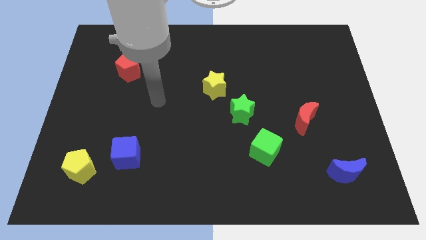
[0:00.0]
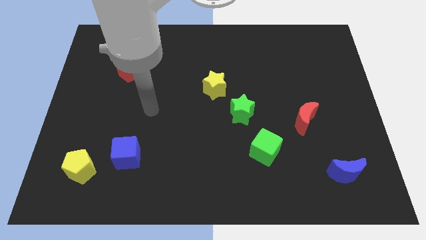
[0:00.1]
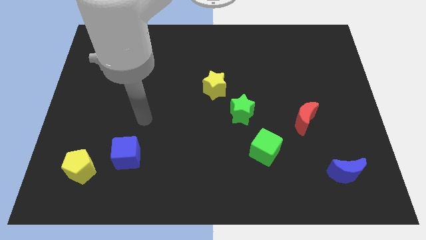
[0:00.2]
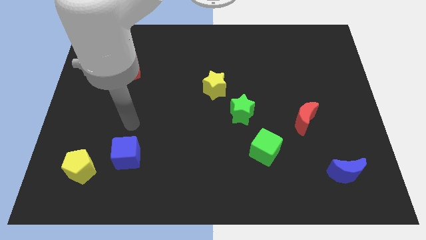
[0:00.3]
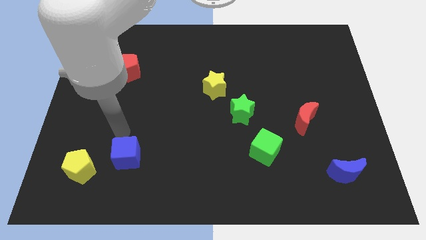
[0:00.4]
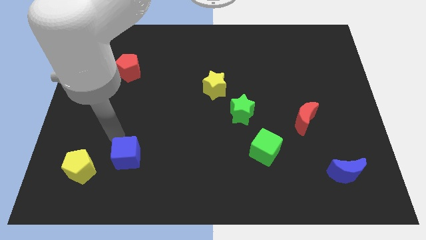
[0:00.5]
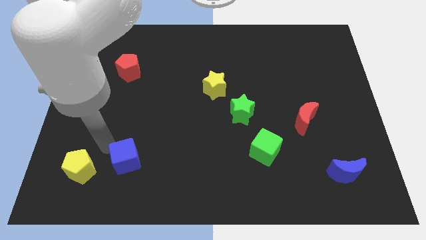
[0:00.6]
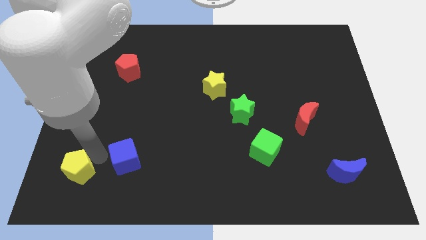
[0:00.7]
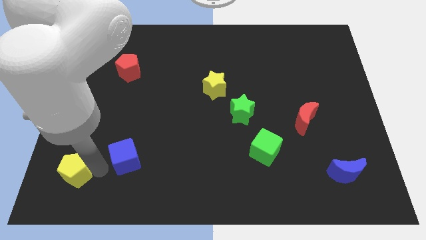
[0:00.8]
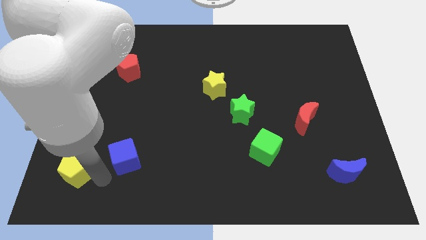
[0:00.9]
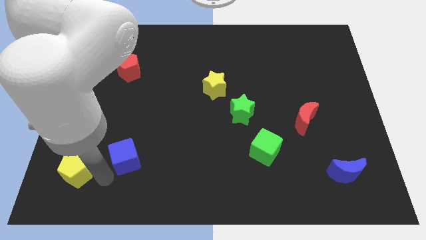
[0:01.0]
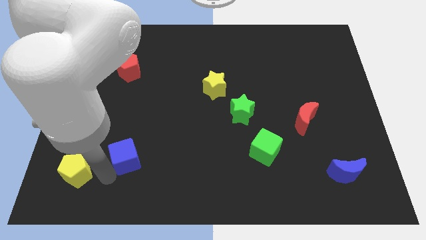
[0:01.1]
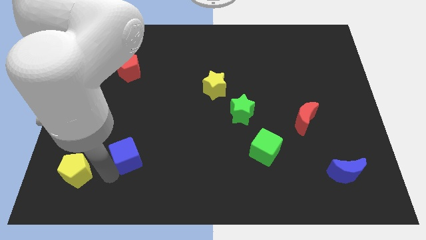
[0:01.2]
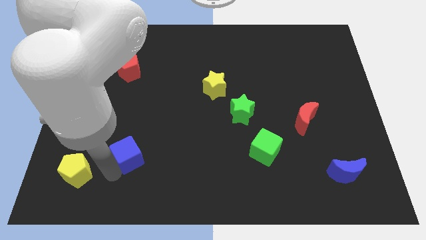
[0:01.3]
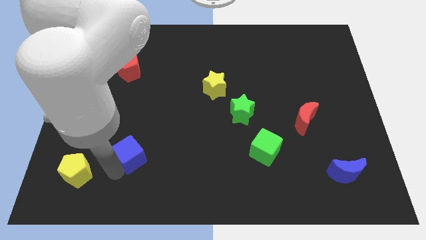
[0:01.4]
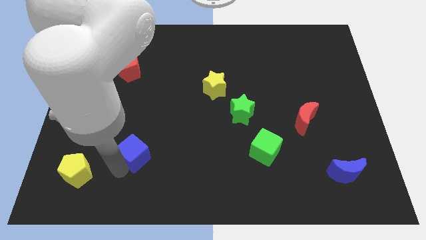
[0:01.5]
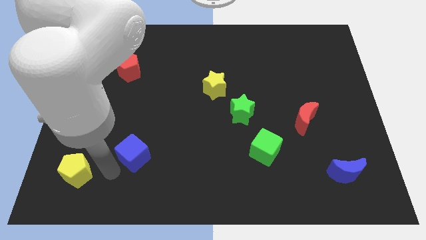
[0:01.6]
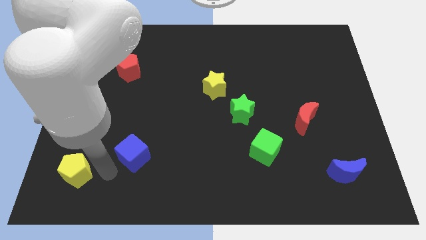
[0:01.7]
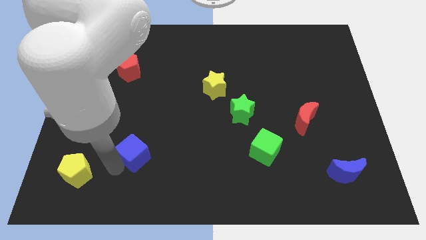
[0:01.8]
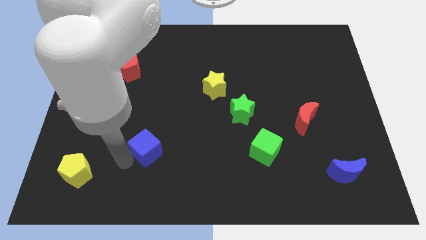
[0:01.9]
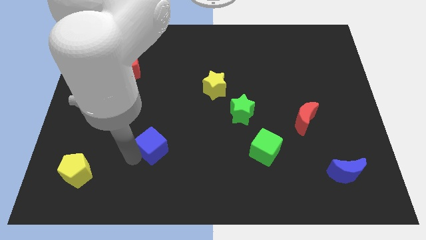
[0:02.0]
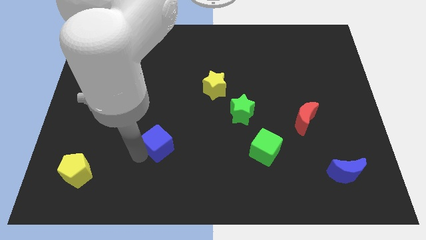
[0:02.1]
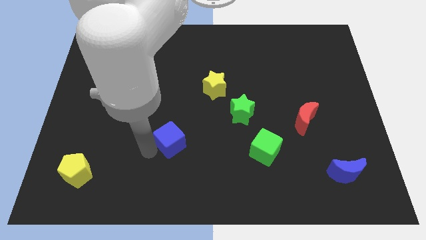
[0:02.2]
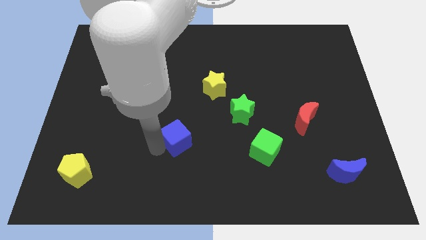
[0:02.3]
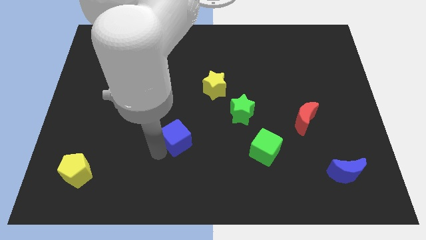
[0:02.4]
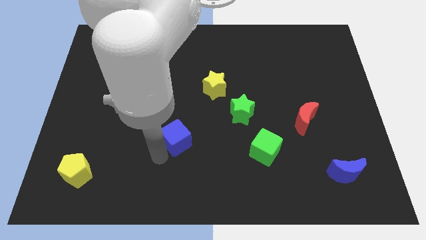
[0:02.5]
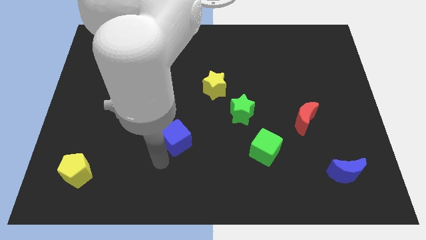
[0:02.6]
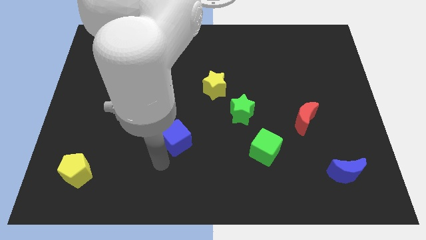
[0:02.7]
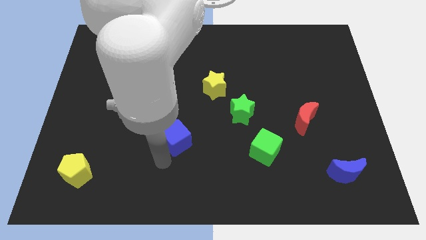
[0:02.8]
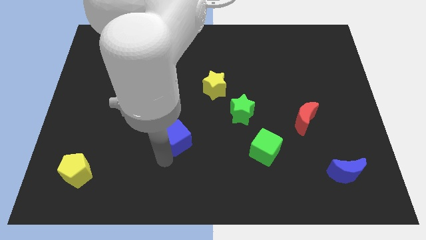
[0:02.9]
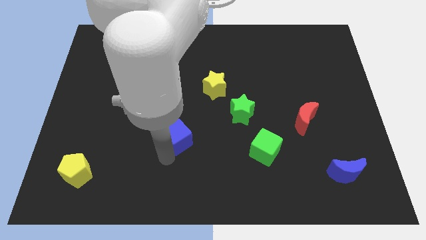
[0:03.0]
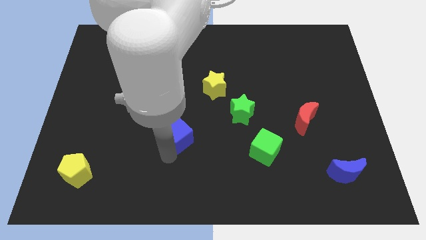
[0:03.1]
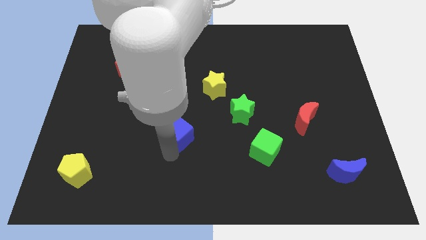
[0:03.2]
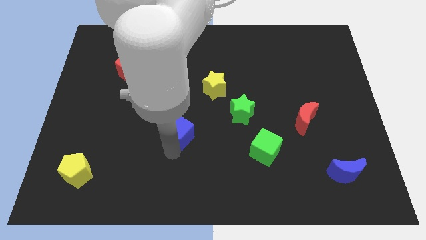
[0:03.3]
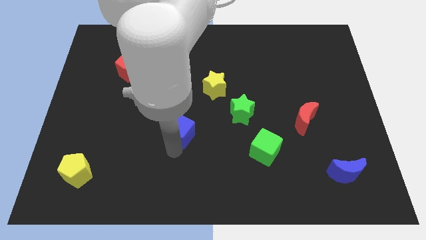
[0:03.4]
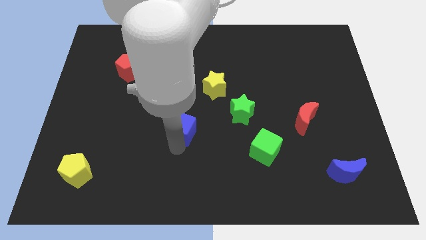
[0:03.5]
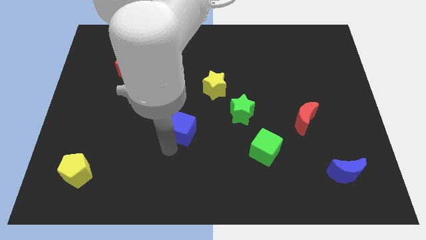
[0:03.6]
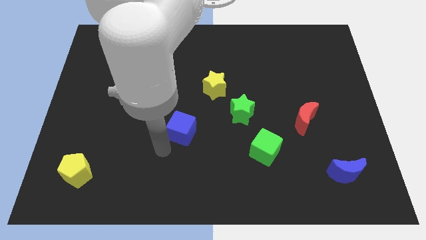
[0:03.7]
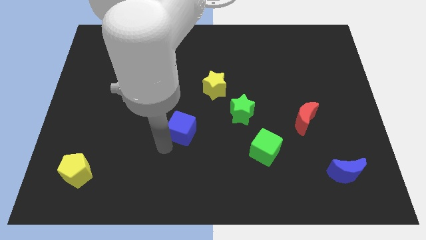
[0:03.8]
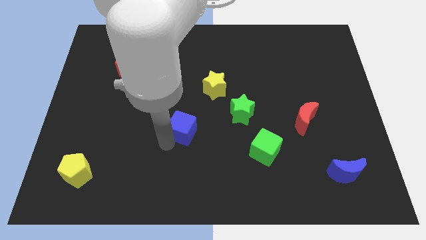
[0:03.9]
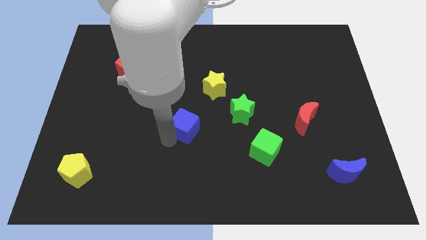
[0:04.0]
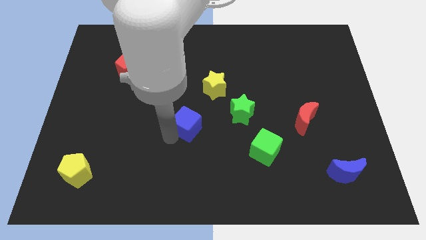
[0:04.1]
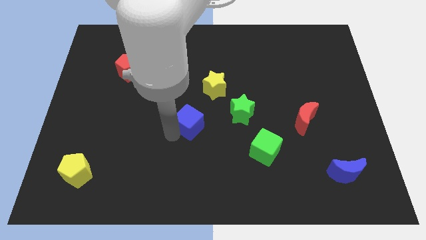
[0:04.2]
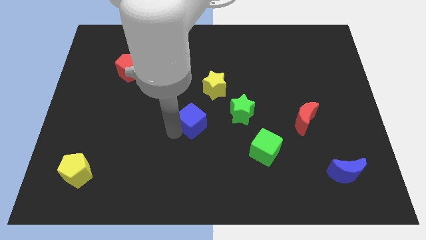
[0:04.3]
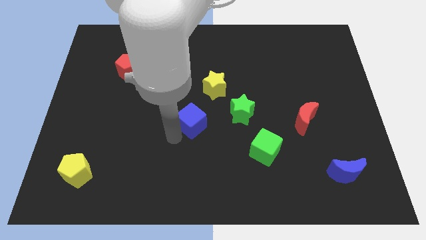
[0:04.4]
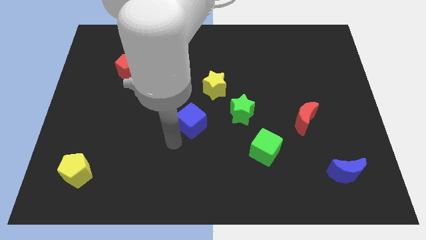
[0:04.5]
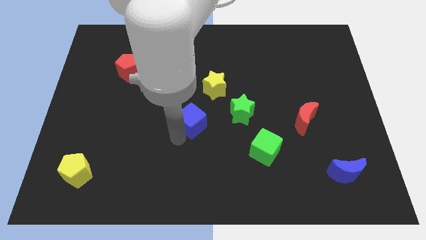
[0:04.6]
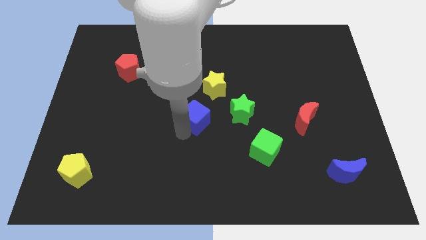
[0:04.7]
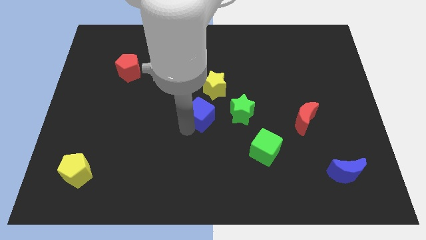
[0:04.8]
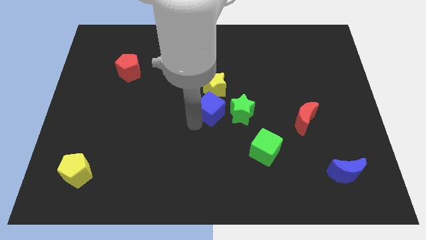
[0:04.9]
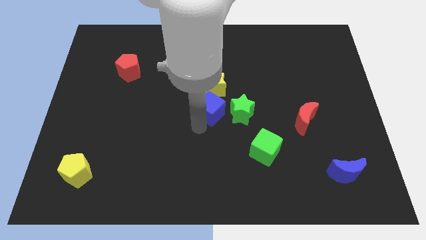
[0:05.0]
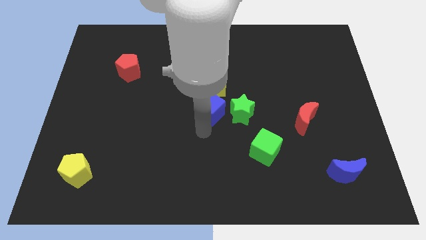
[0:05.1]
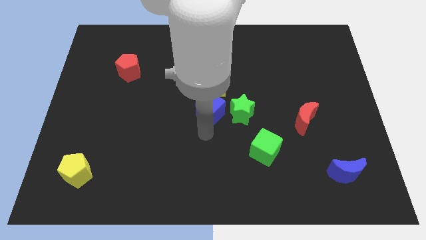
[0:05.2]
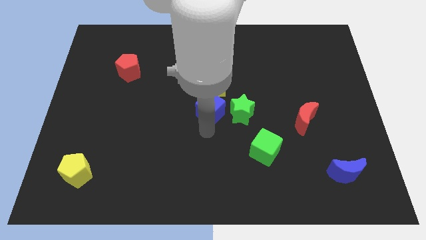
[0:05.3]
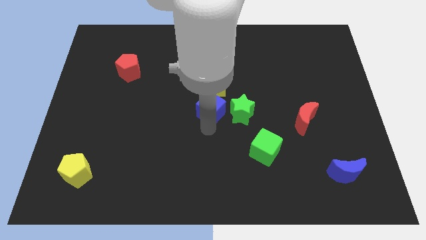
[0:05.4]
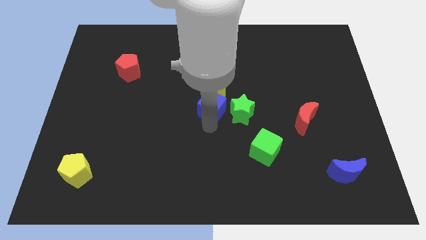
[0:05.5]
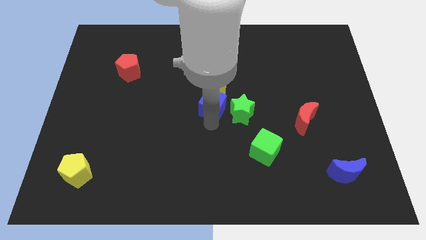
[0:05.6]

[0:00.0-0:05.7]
slide the blue cube to the yellow star

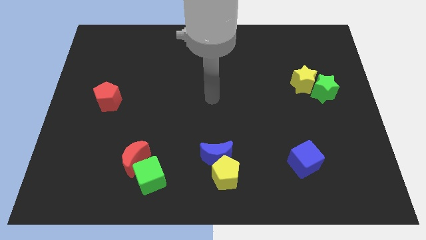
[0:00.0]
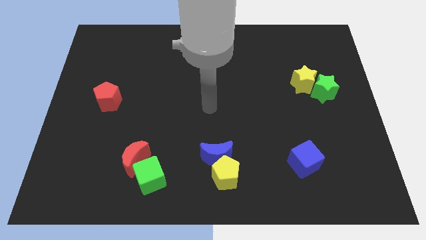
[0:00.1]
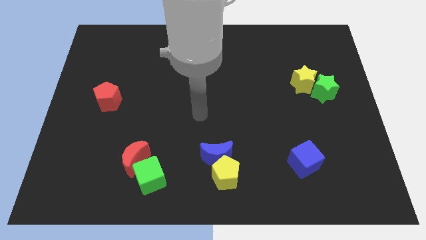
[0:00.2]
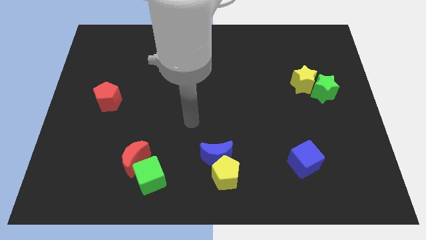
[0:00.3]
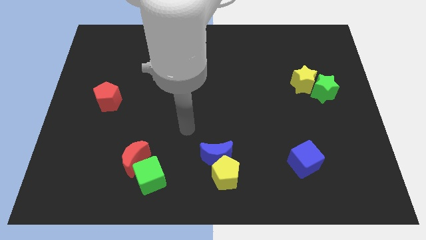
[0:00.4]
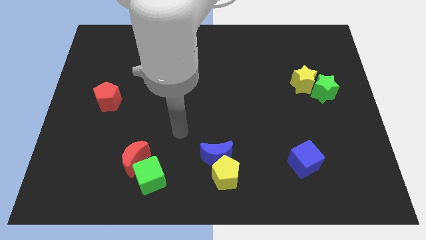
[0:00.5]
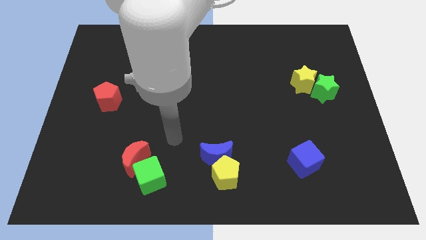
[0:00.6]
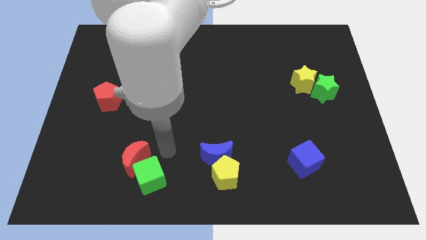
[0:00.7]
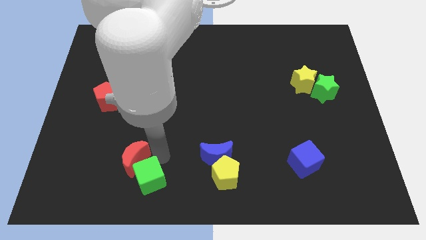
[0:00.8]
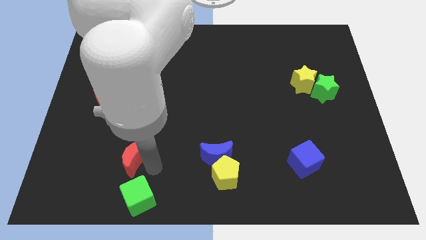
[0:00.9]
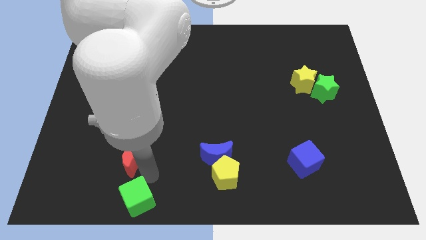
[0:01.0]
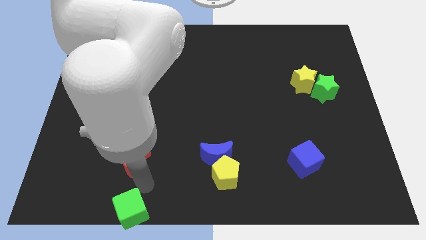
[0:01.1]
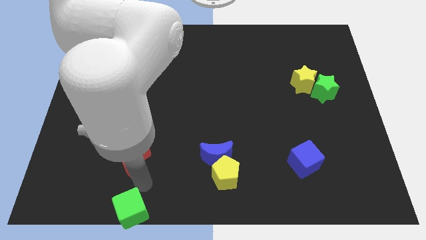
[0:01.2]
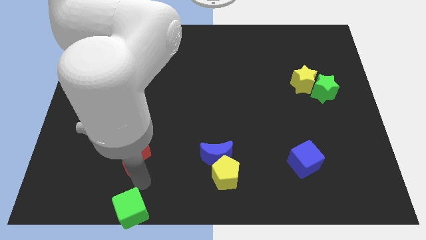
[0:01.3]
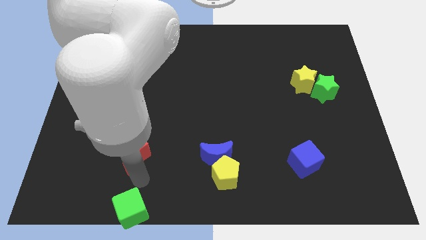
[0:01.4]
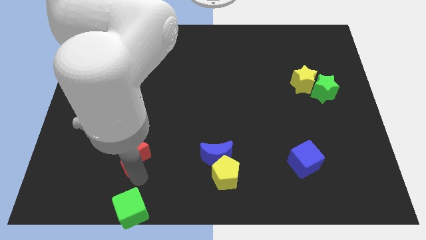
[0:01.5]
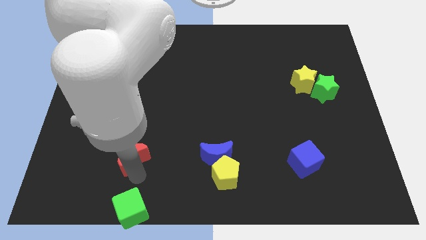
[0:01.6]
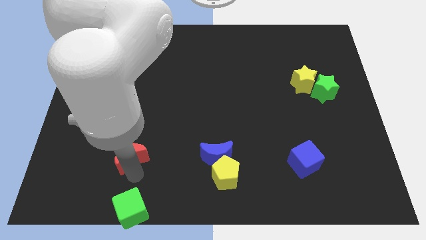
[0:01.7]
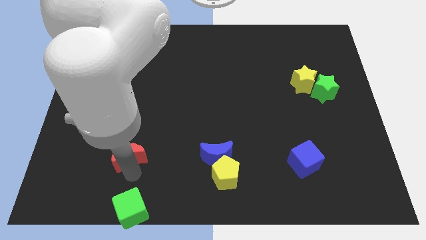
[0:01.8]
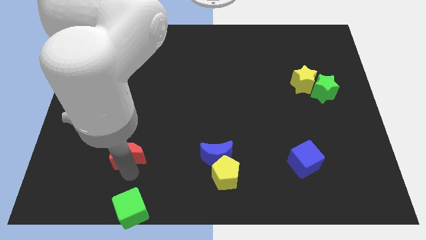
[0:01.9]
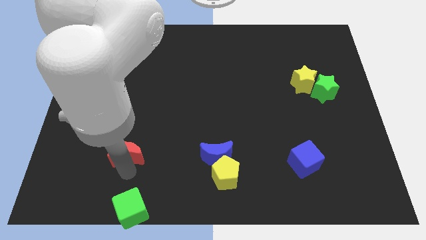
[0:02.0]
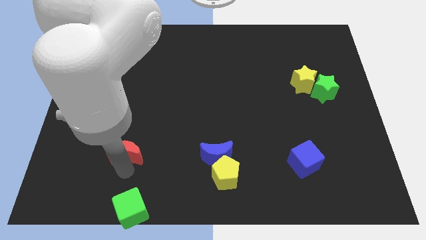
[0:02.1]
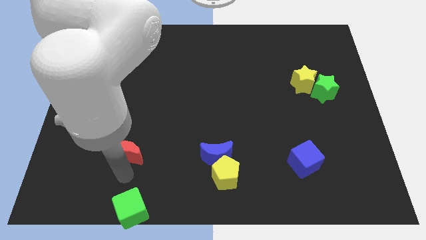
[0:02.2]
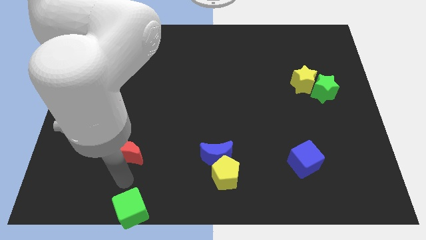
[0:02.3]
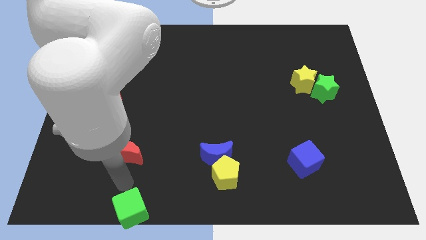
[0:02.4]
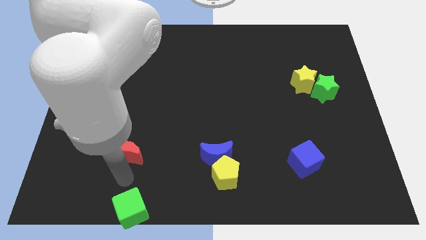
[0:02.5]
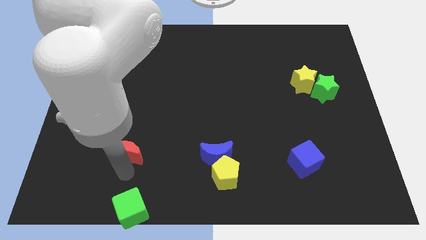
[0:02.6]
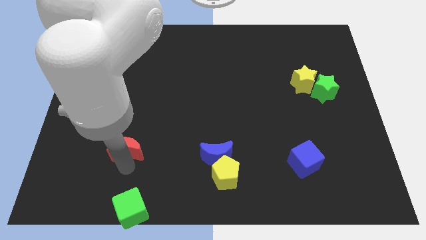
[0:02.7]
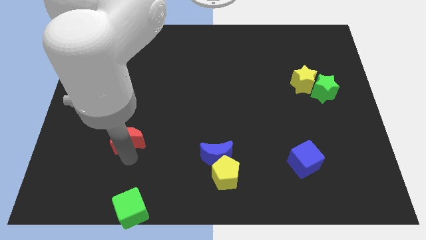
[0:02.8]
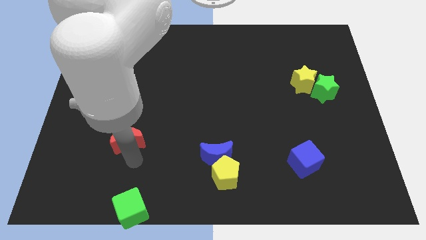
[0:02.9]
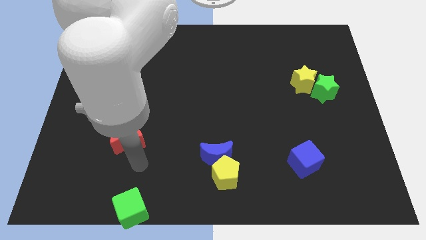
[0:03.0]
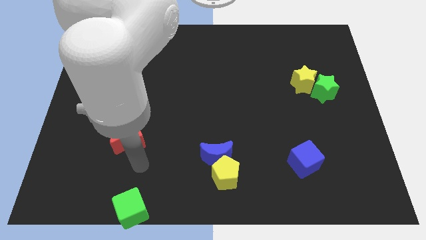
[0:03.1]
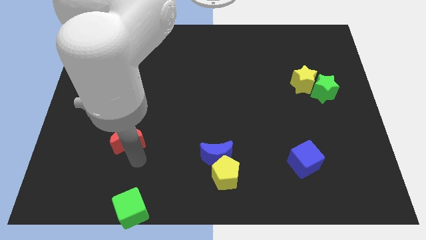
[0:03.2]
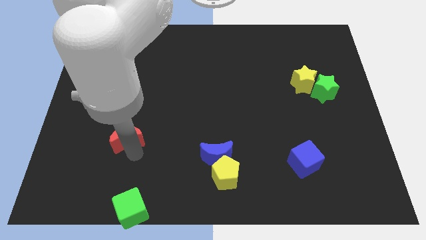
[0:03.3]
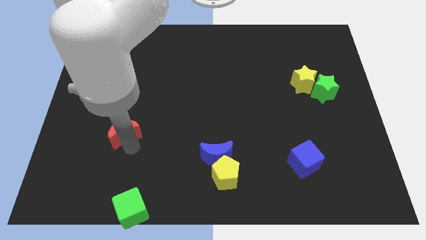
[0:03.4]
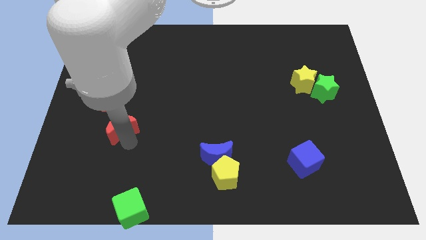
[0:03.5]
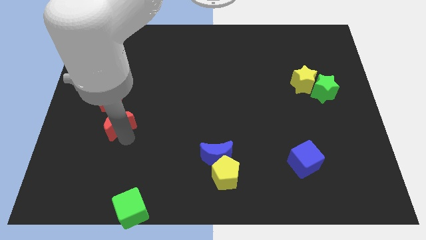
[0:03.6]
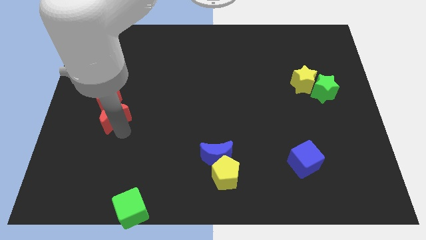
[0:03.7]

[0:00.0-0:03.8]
move the red moon next to the red pentagon
